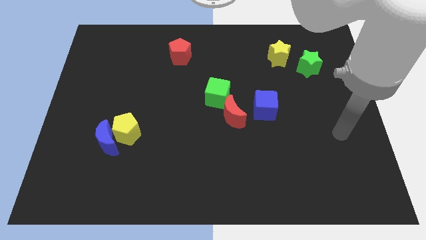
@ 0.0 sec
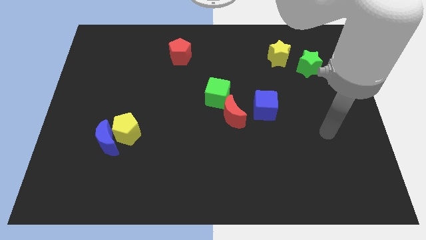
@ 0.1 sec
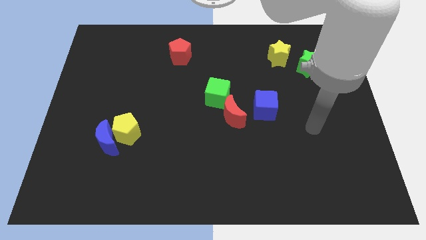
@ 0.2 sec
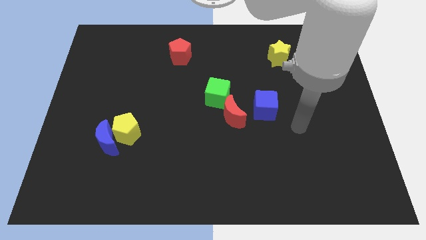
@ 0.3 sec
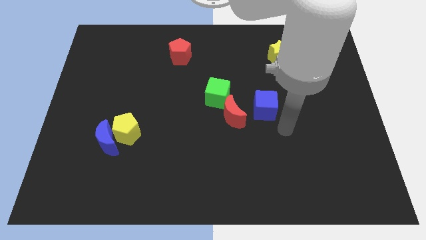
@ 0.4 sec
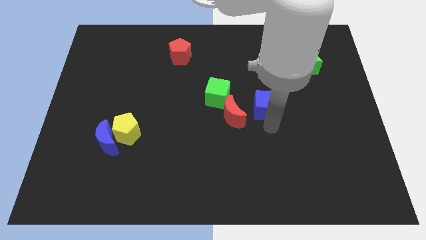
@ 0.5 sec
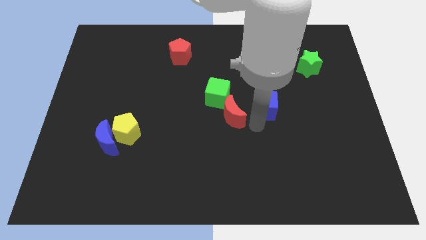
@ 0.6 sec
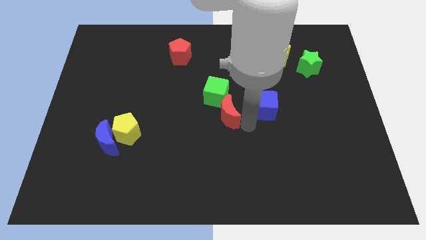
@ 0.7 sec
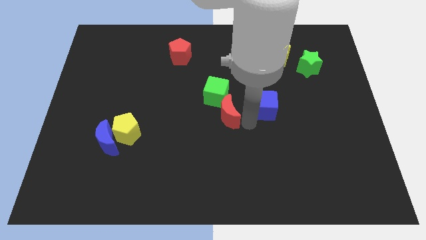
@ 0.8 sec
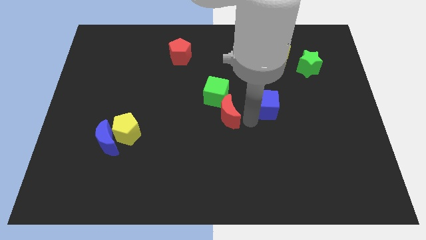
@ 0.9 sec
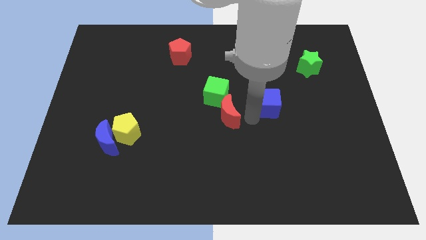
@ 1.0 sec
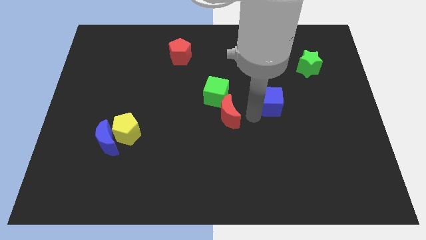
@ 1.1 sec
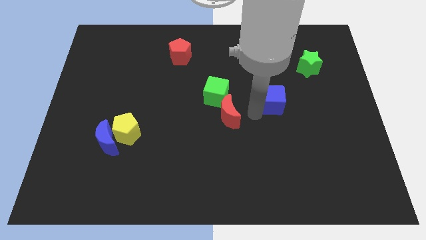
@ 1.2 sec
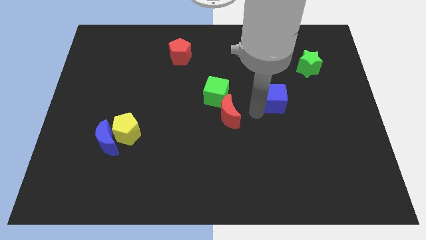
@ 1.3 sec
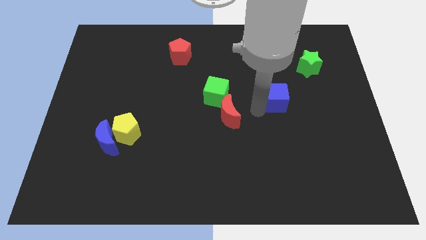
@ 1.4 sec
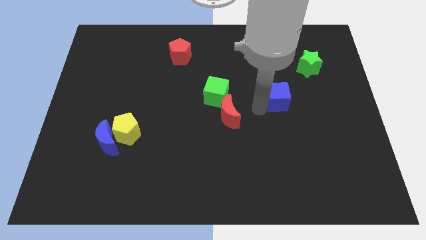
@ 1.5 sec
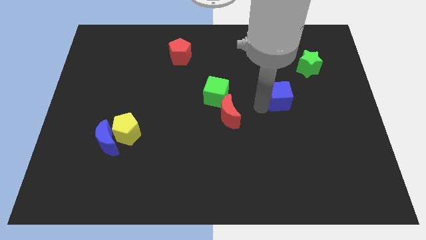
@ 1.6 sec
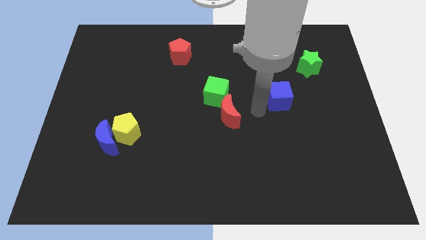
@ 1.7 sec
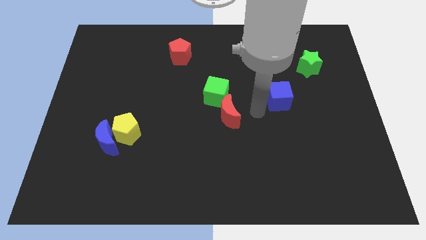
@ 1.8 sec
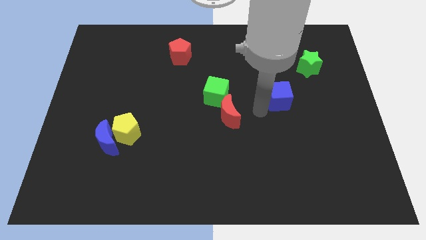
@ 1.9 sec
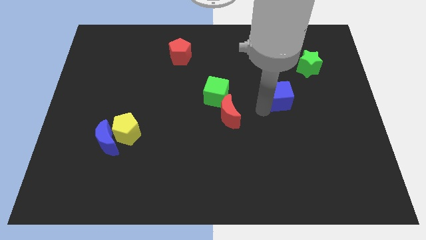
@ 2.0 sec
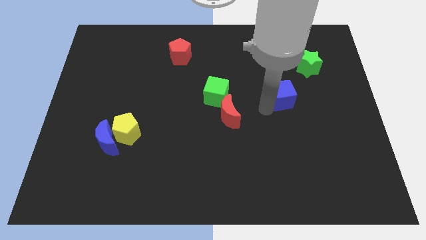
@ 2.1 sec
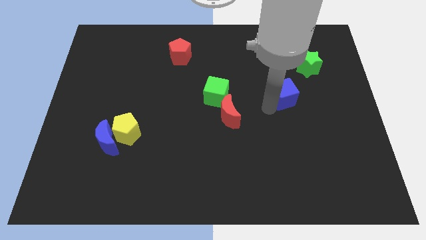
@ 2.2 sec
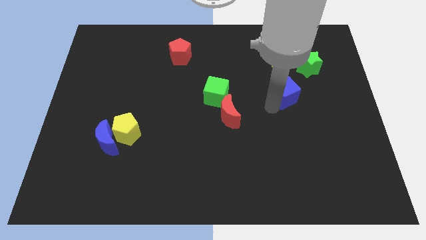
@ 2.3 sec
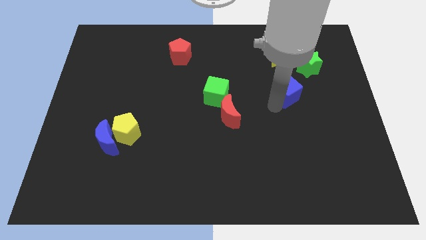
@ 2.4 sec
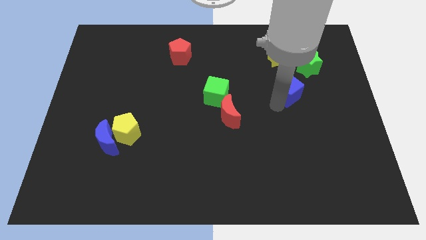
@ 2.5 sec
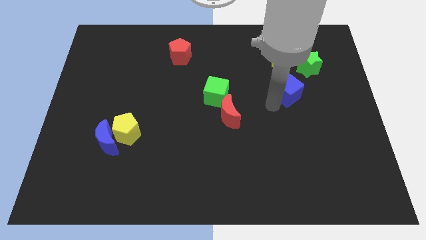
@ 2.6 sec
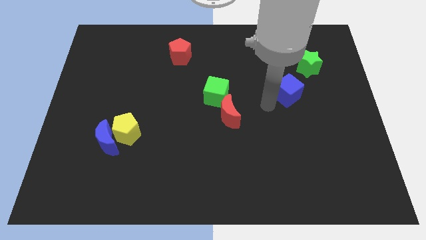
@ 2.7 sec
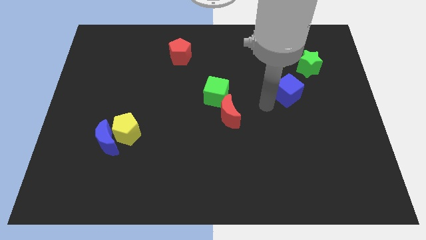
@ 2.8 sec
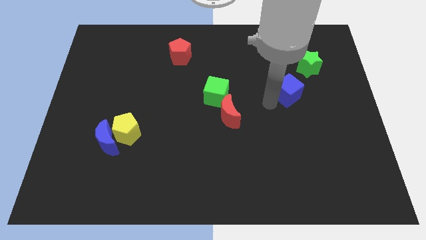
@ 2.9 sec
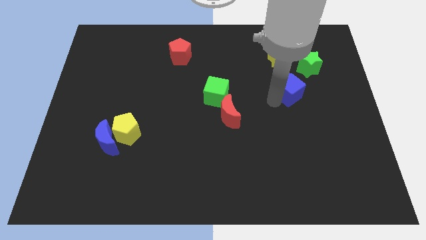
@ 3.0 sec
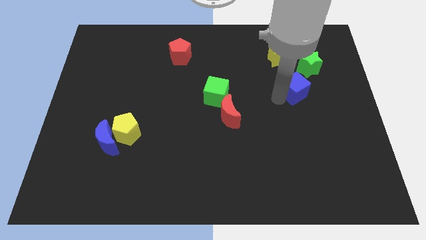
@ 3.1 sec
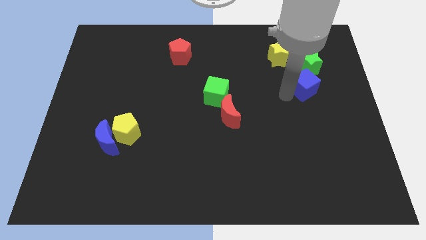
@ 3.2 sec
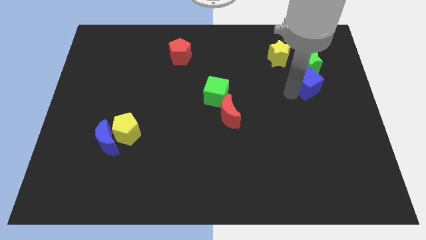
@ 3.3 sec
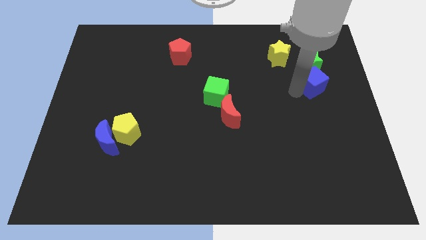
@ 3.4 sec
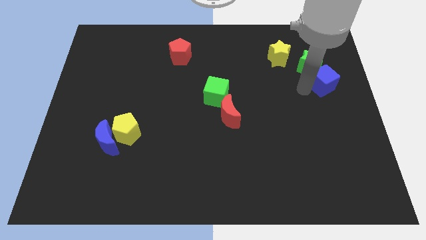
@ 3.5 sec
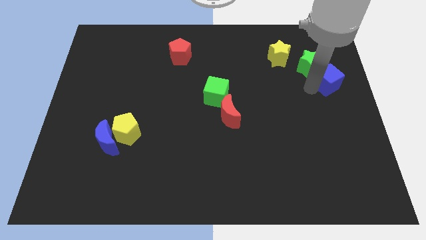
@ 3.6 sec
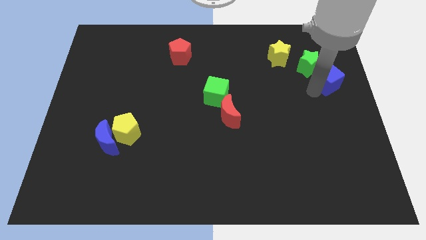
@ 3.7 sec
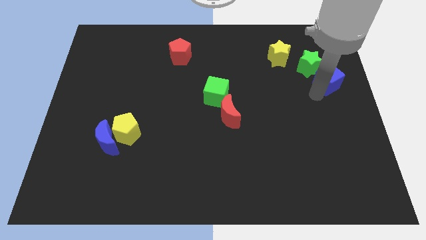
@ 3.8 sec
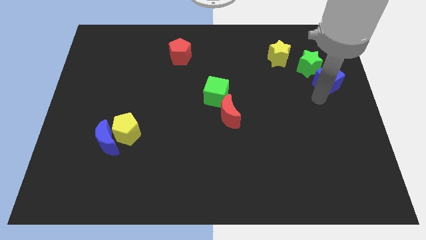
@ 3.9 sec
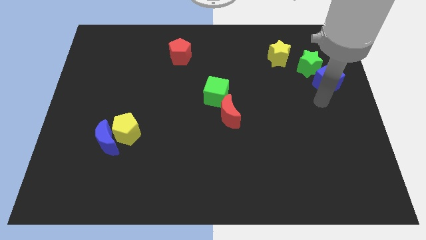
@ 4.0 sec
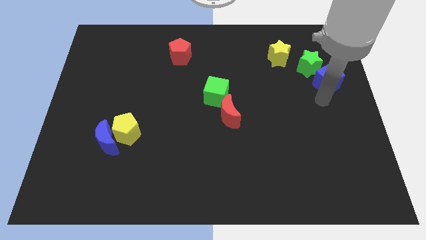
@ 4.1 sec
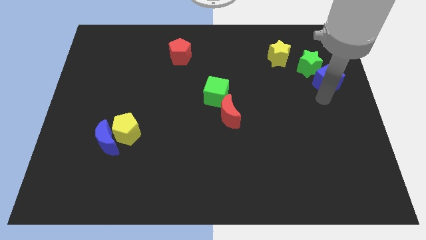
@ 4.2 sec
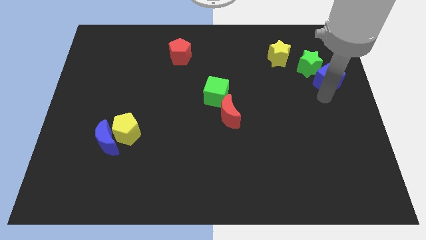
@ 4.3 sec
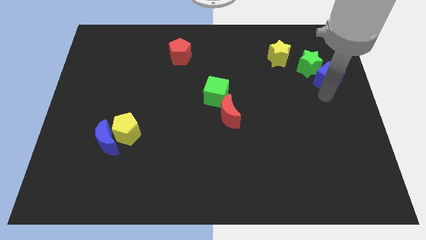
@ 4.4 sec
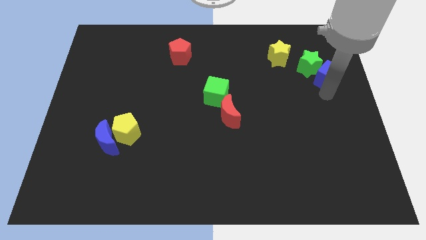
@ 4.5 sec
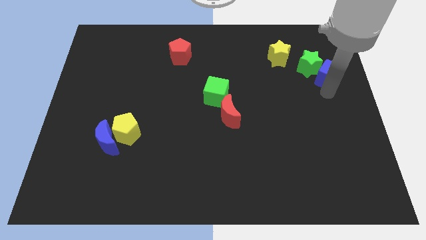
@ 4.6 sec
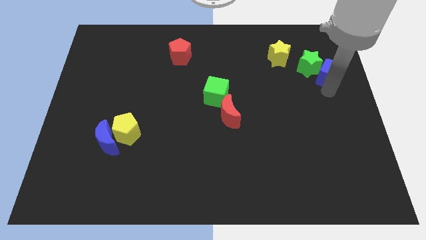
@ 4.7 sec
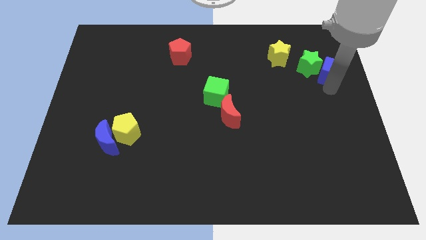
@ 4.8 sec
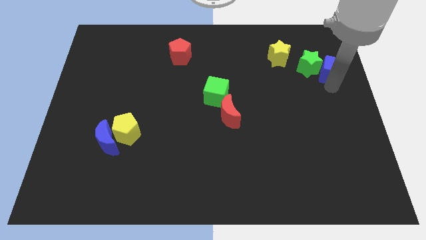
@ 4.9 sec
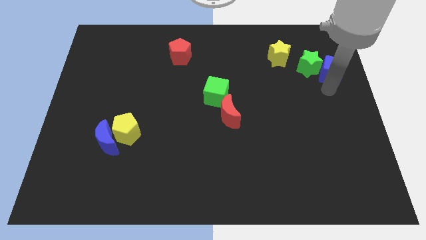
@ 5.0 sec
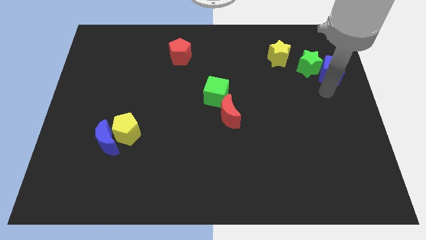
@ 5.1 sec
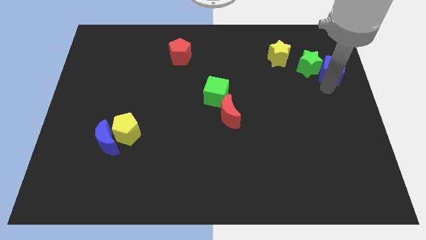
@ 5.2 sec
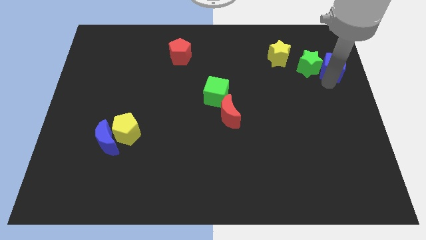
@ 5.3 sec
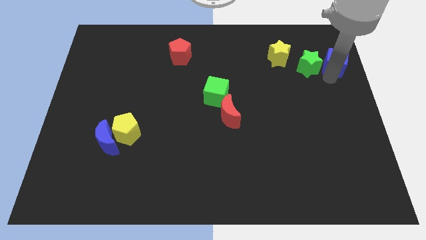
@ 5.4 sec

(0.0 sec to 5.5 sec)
put the blue cube right of the yellow star

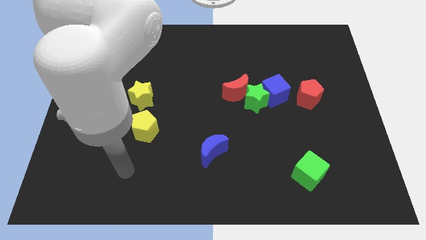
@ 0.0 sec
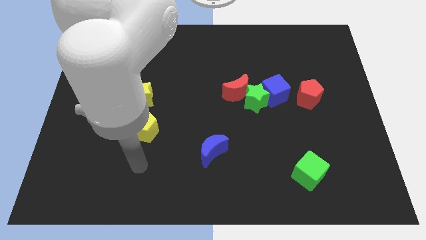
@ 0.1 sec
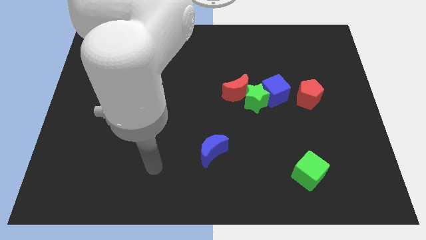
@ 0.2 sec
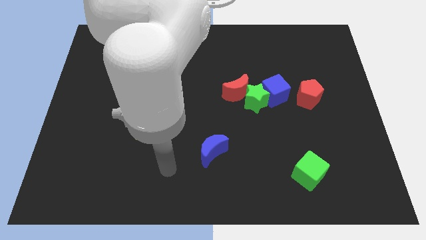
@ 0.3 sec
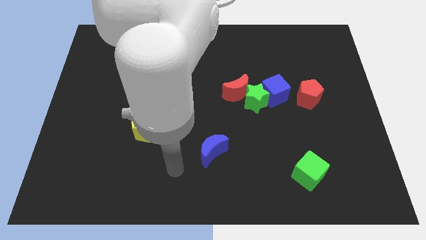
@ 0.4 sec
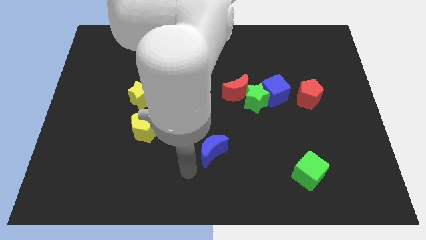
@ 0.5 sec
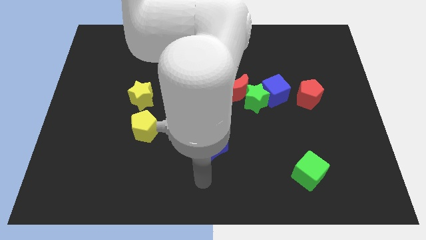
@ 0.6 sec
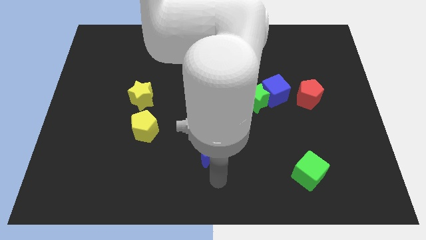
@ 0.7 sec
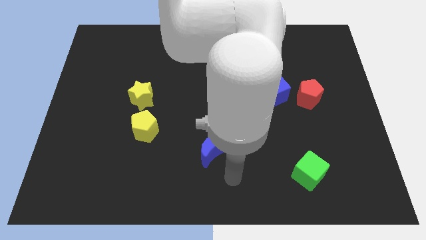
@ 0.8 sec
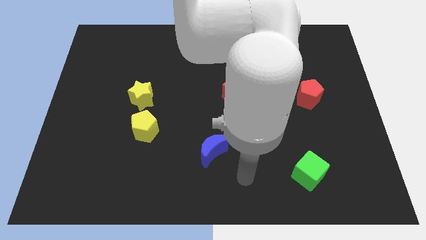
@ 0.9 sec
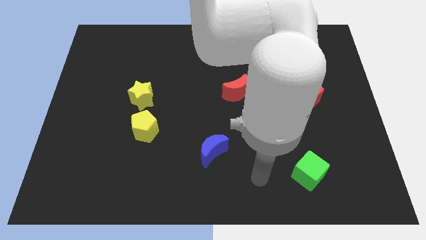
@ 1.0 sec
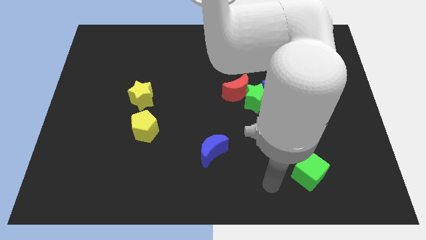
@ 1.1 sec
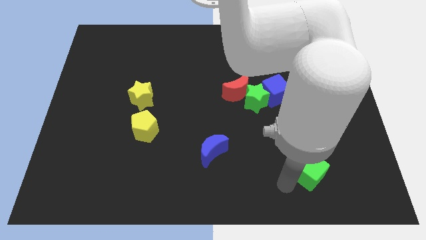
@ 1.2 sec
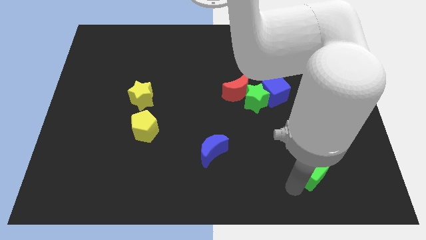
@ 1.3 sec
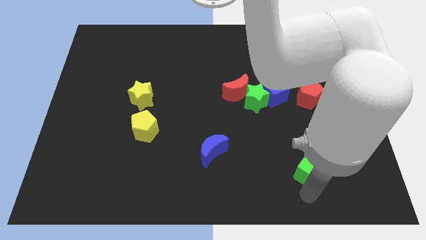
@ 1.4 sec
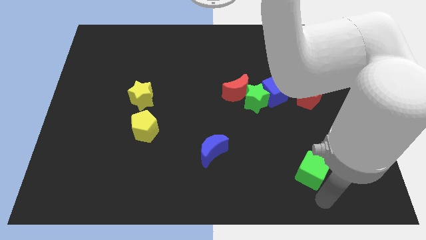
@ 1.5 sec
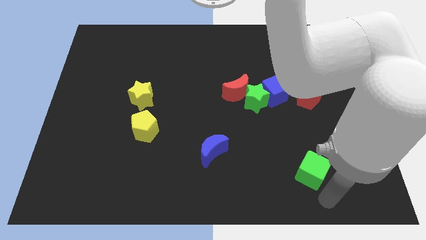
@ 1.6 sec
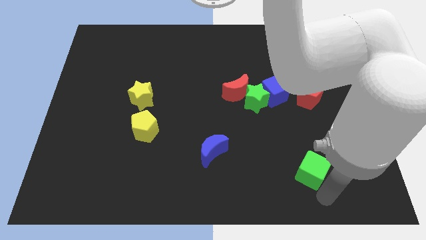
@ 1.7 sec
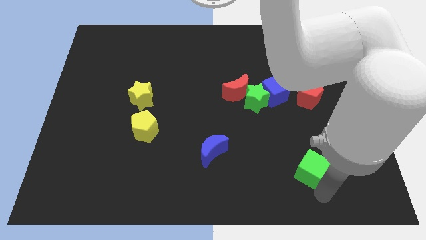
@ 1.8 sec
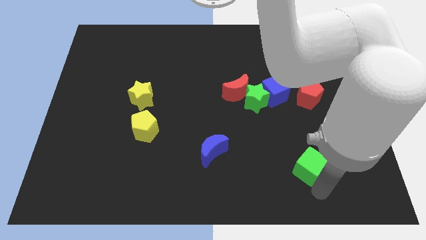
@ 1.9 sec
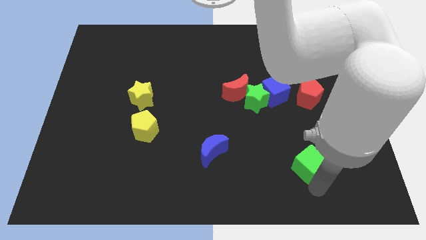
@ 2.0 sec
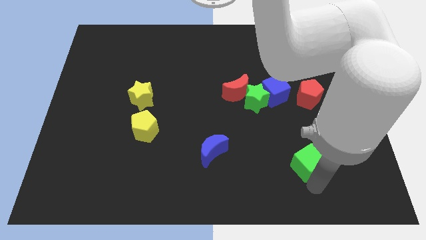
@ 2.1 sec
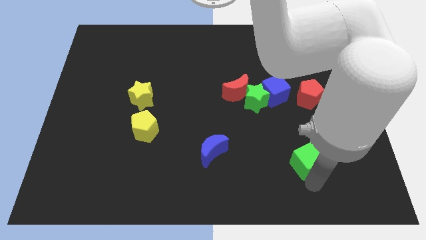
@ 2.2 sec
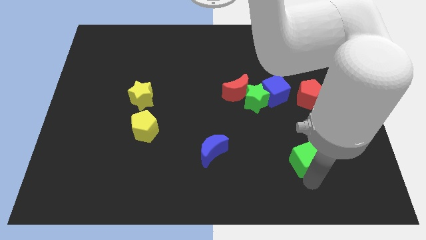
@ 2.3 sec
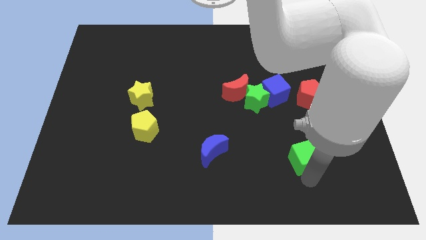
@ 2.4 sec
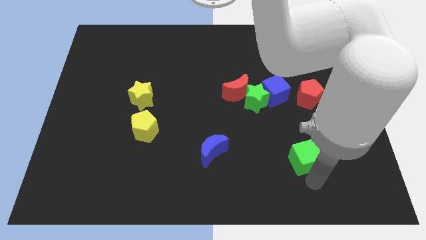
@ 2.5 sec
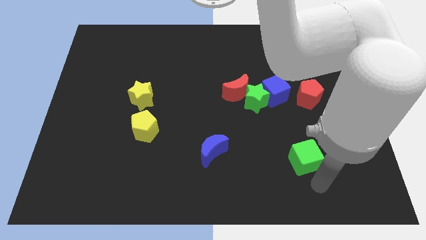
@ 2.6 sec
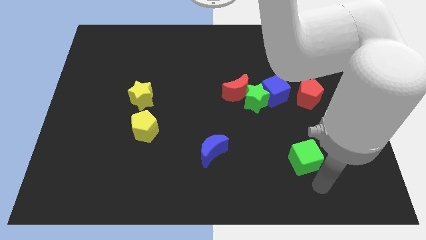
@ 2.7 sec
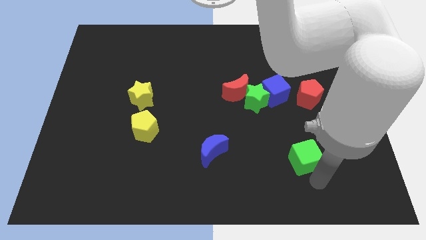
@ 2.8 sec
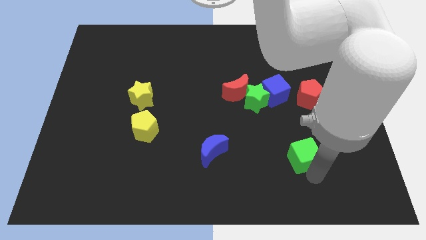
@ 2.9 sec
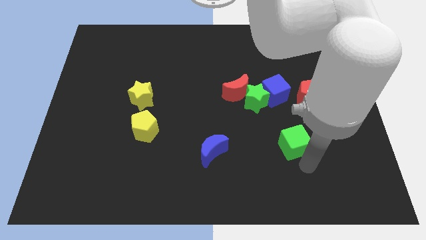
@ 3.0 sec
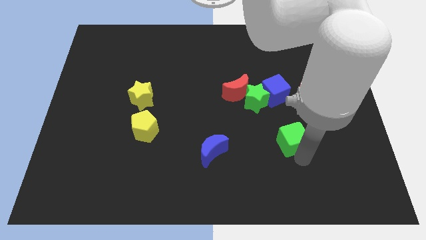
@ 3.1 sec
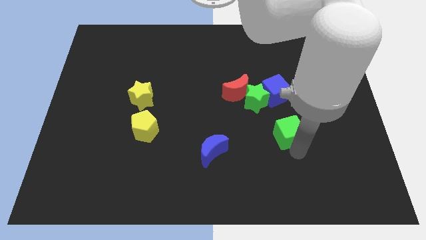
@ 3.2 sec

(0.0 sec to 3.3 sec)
move the green cube to the bottom right side of the green star
